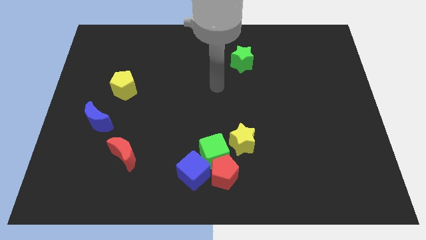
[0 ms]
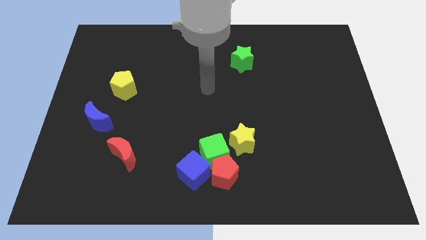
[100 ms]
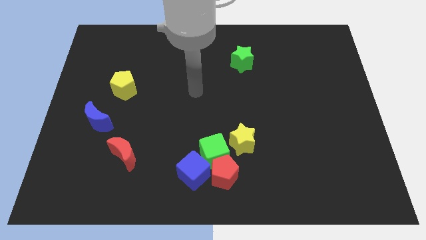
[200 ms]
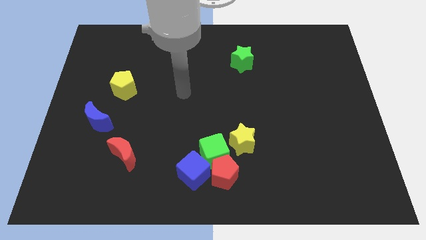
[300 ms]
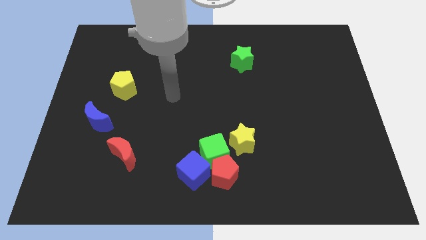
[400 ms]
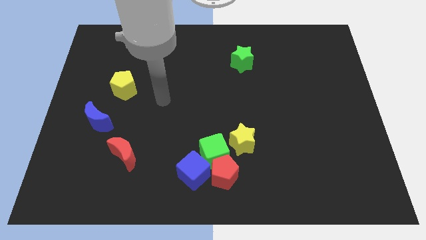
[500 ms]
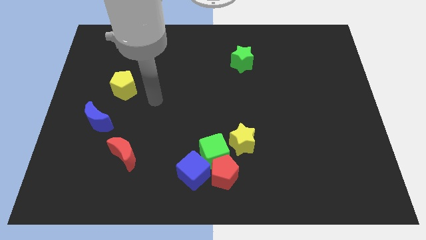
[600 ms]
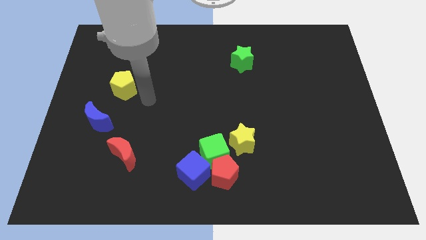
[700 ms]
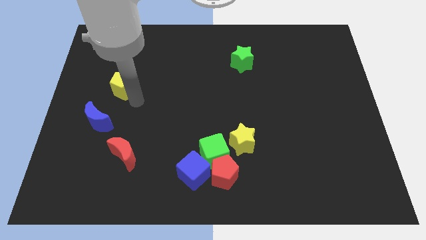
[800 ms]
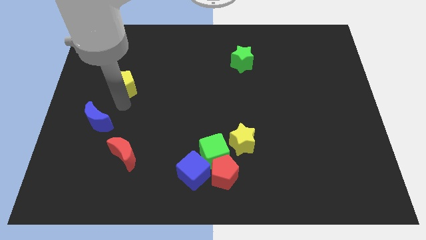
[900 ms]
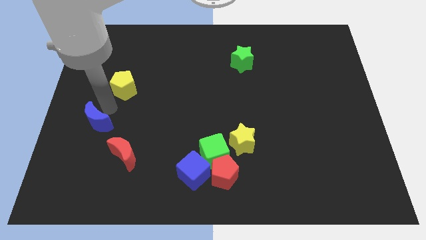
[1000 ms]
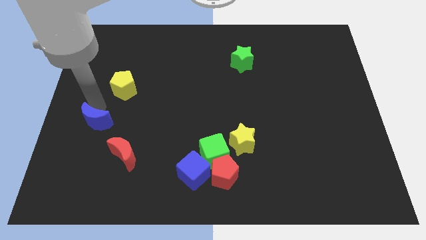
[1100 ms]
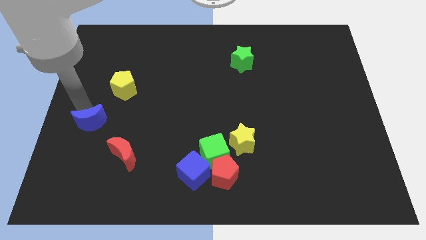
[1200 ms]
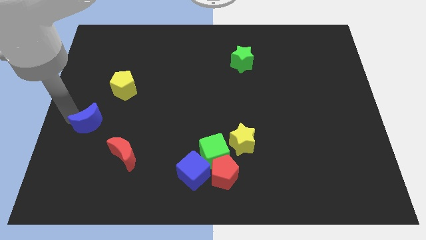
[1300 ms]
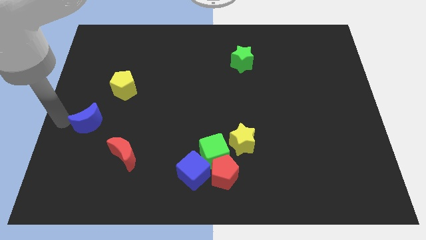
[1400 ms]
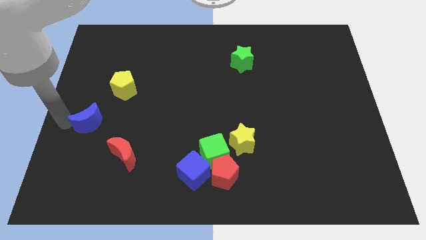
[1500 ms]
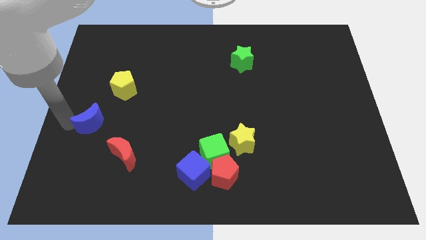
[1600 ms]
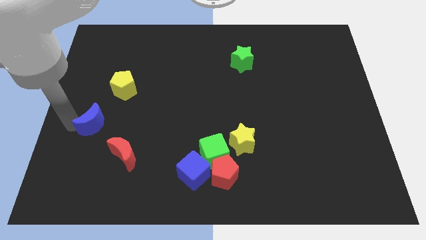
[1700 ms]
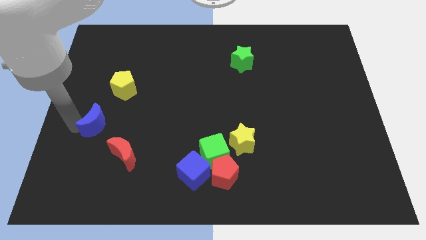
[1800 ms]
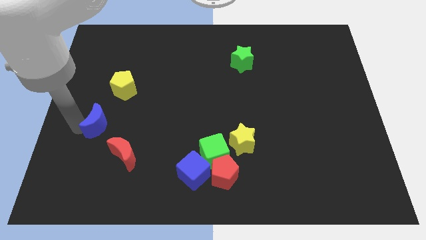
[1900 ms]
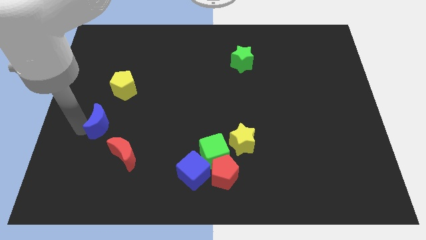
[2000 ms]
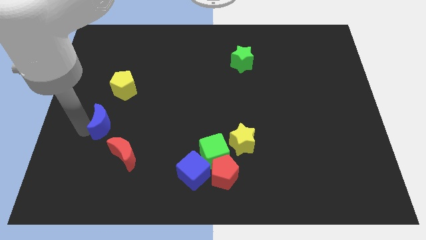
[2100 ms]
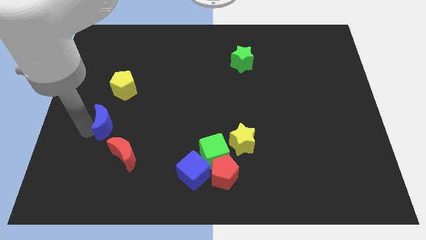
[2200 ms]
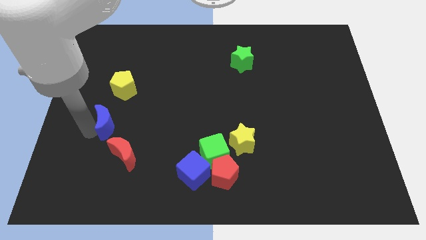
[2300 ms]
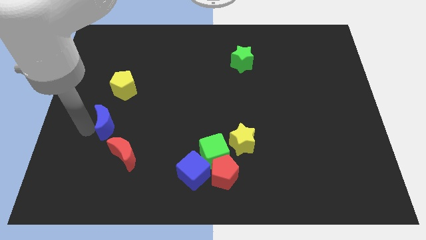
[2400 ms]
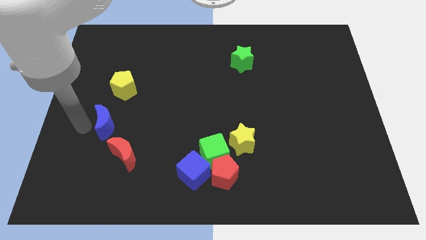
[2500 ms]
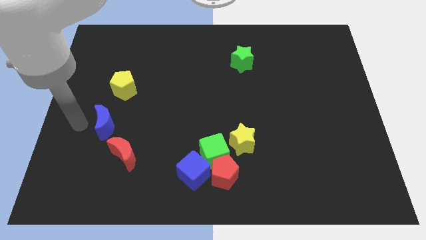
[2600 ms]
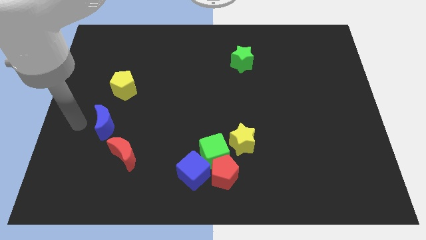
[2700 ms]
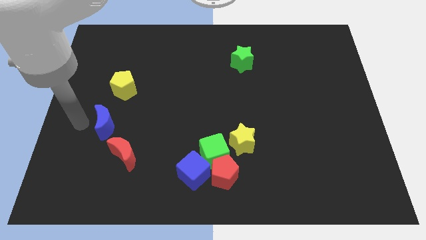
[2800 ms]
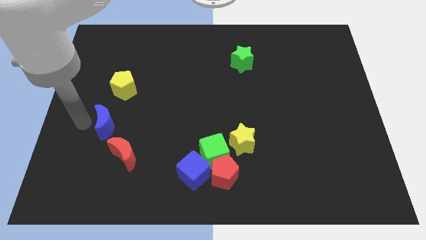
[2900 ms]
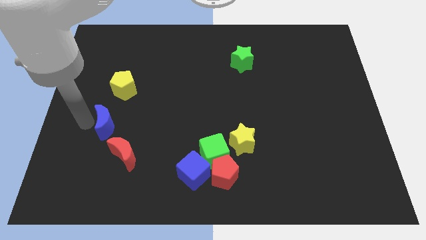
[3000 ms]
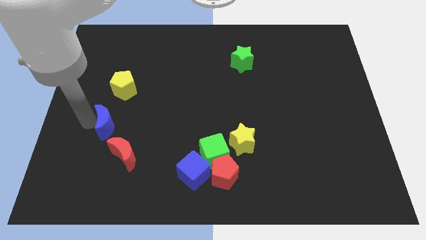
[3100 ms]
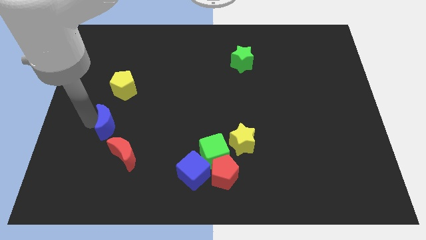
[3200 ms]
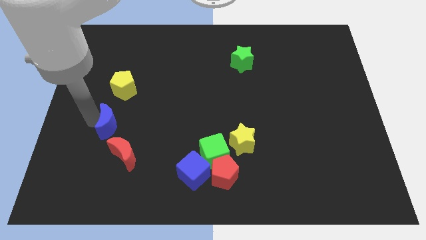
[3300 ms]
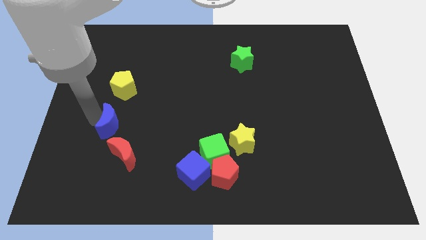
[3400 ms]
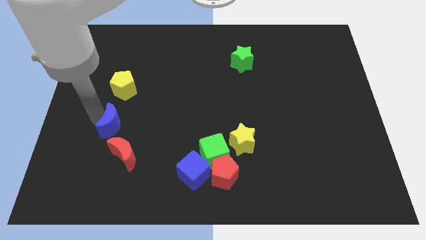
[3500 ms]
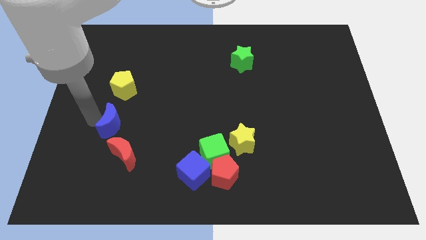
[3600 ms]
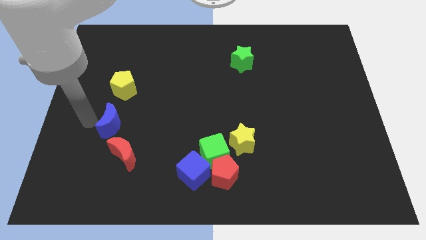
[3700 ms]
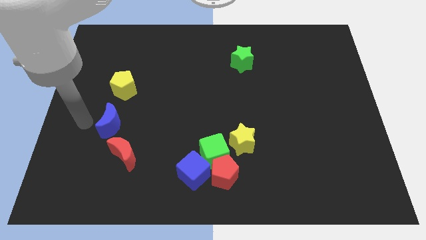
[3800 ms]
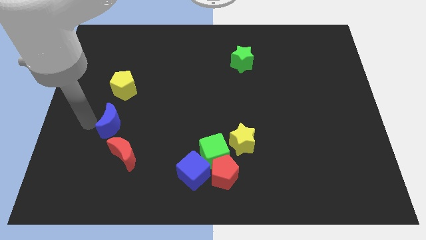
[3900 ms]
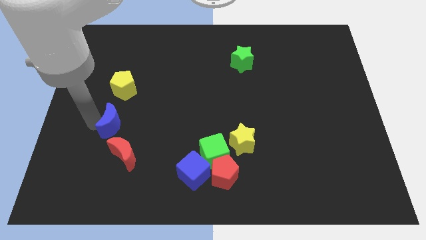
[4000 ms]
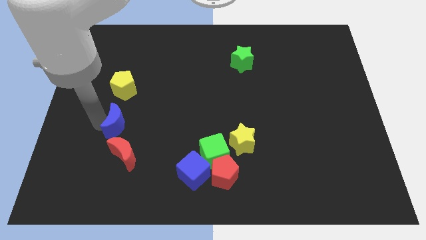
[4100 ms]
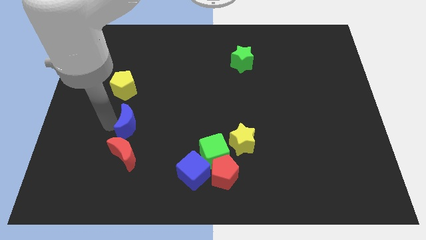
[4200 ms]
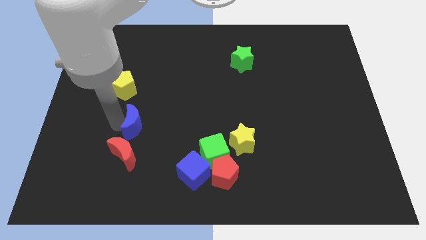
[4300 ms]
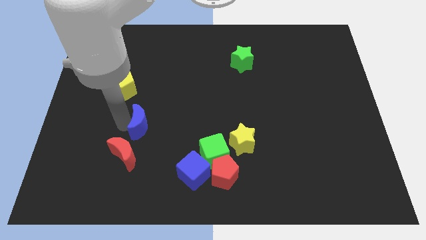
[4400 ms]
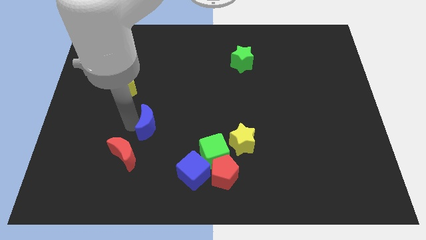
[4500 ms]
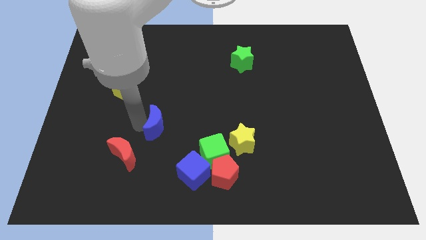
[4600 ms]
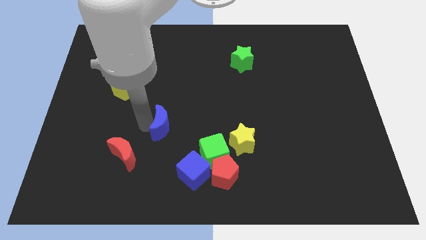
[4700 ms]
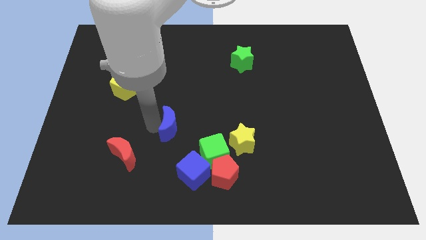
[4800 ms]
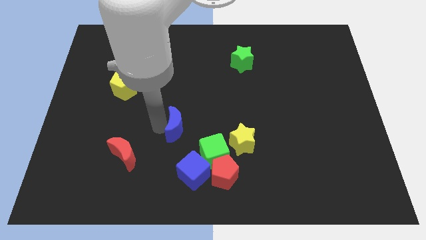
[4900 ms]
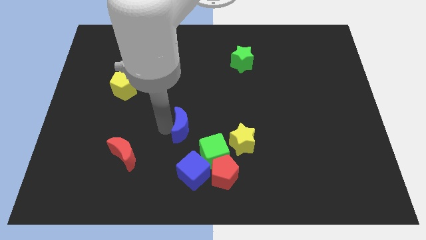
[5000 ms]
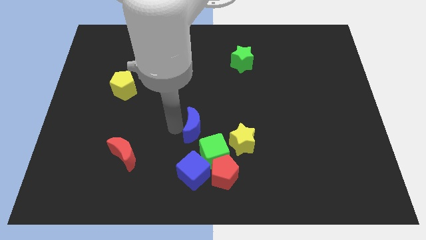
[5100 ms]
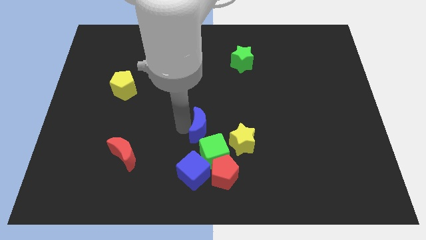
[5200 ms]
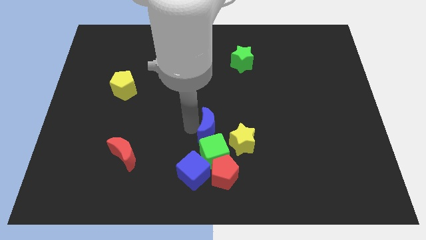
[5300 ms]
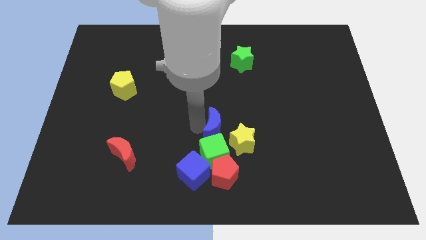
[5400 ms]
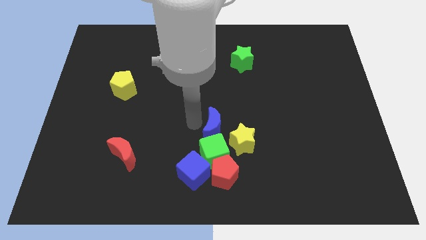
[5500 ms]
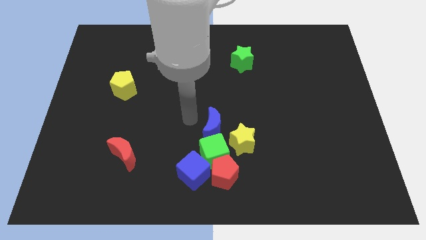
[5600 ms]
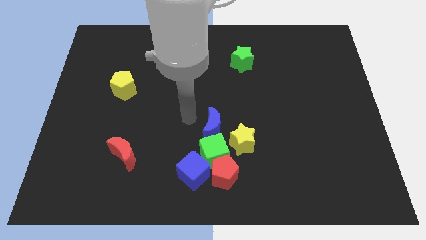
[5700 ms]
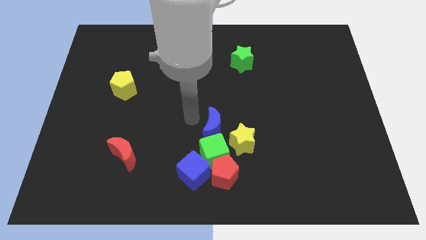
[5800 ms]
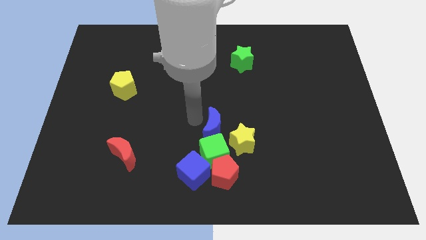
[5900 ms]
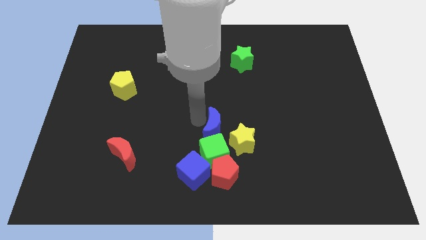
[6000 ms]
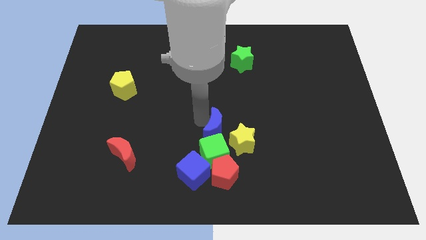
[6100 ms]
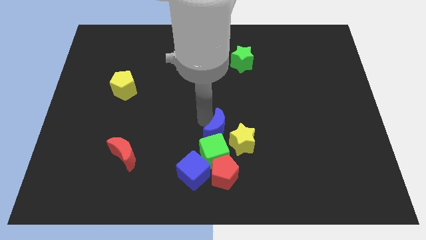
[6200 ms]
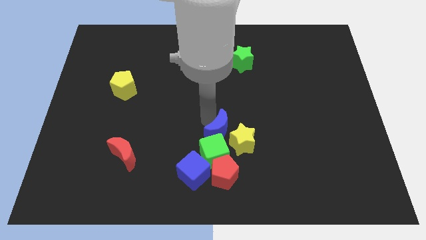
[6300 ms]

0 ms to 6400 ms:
move the blue moon close to the yellow star

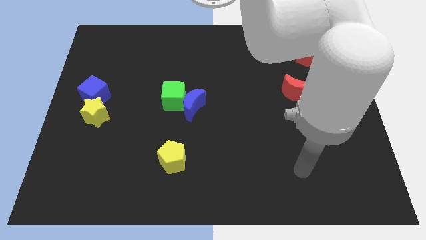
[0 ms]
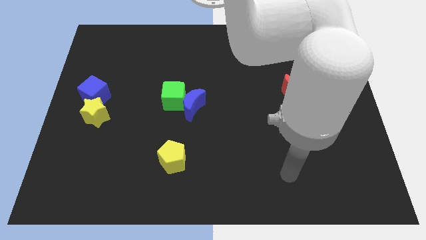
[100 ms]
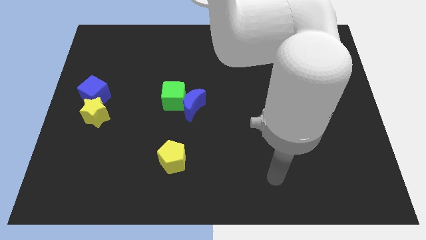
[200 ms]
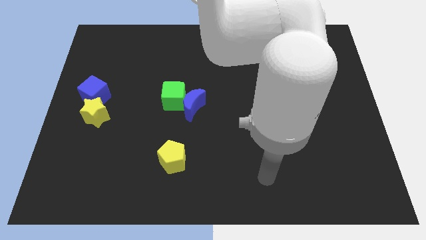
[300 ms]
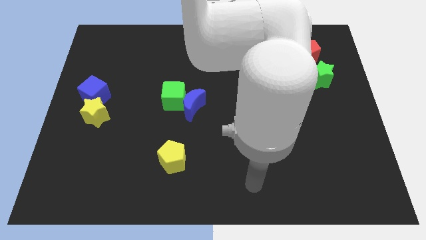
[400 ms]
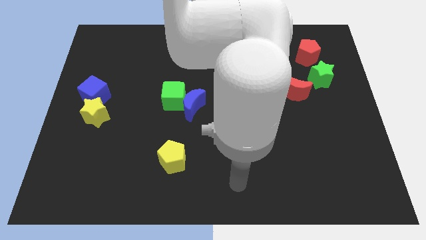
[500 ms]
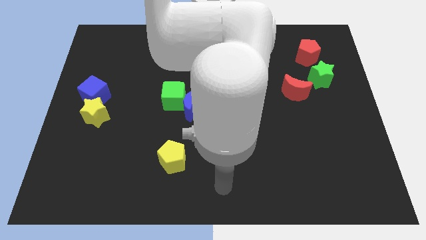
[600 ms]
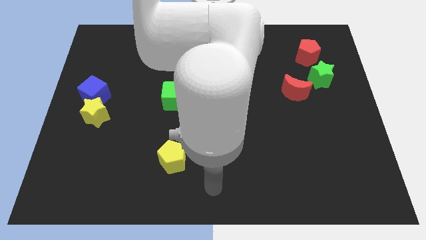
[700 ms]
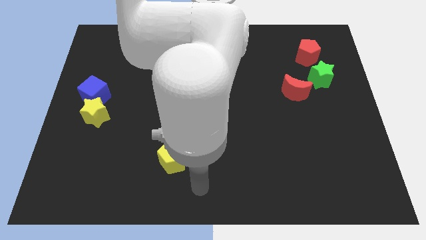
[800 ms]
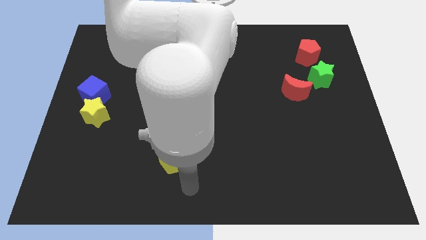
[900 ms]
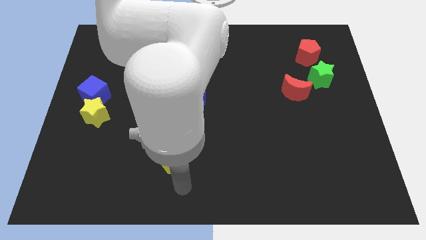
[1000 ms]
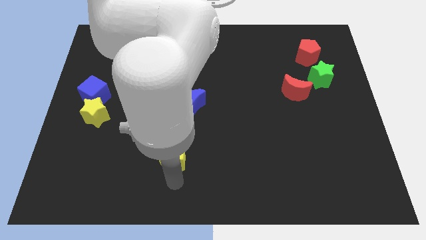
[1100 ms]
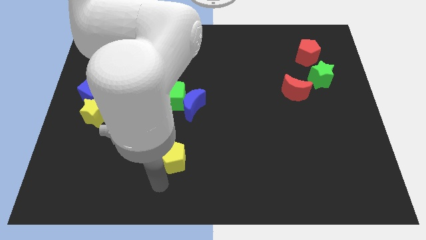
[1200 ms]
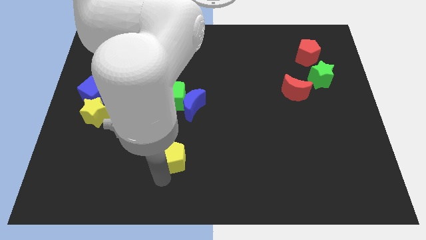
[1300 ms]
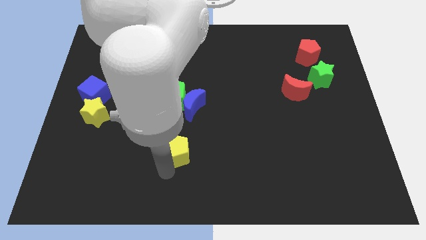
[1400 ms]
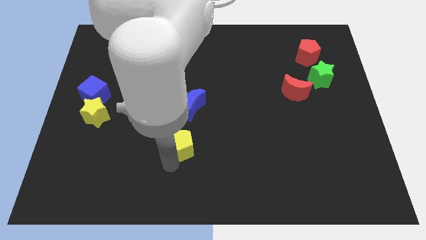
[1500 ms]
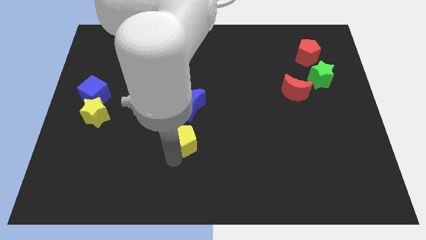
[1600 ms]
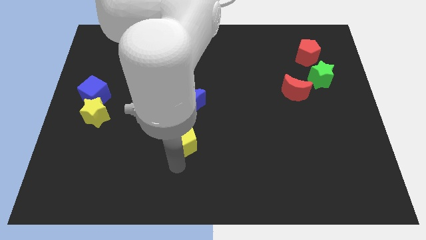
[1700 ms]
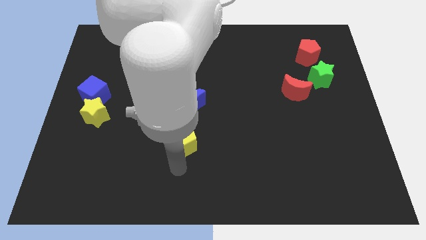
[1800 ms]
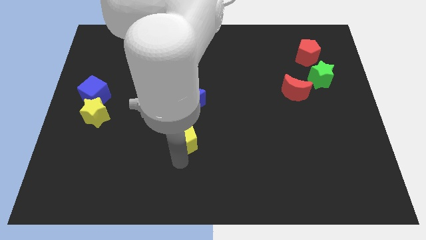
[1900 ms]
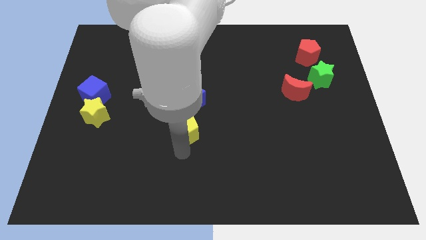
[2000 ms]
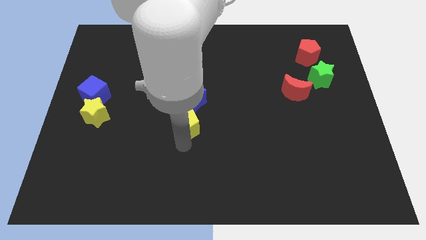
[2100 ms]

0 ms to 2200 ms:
put the yellow pentagon next to the blue moon
